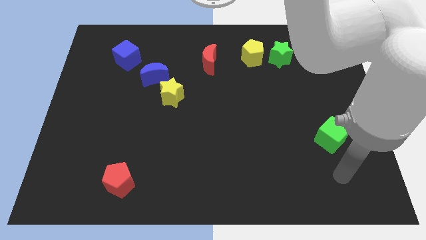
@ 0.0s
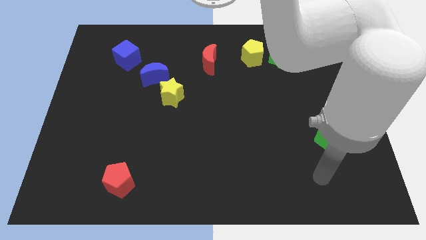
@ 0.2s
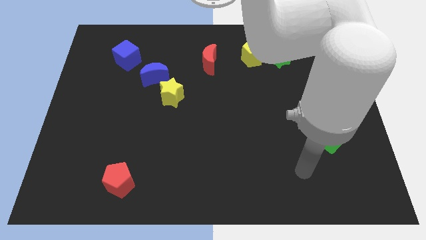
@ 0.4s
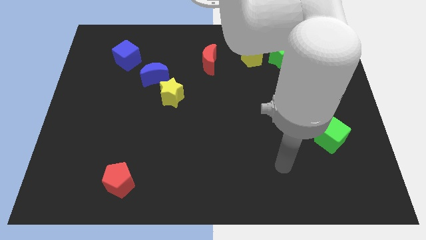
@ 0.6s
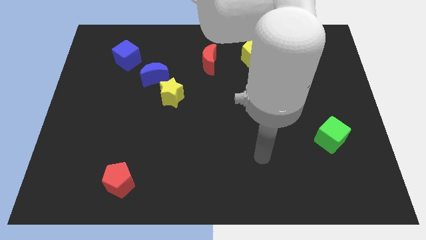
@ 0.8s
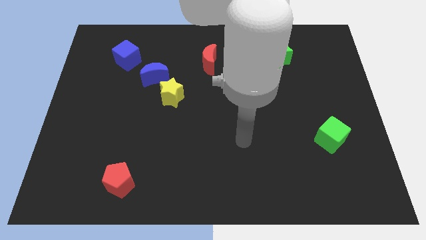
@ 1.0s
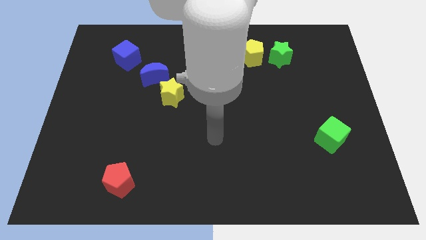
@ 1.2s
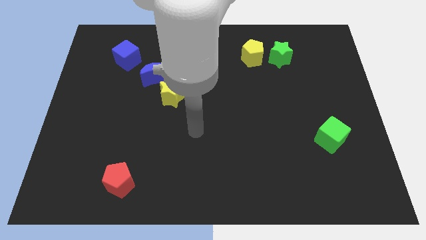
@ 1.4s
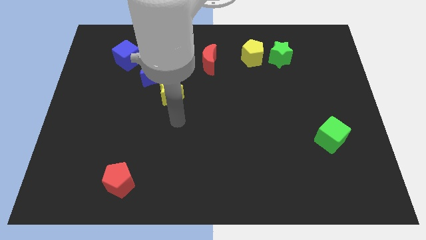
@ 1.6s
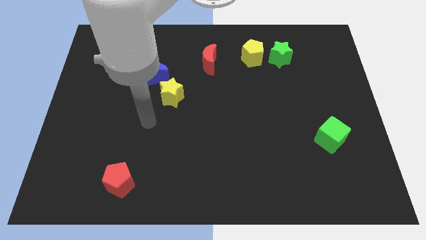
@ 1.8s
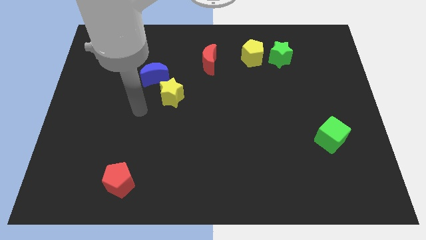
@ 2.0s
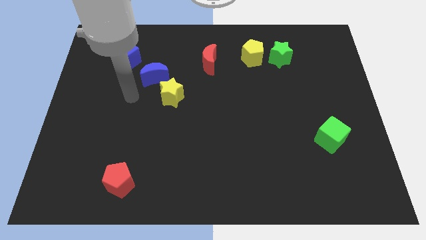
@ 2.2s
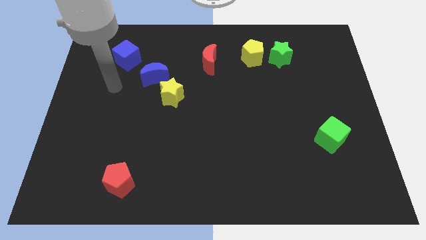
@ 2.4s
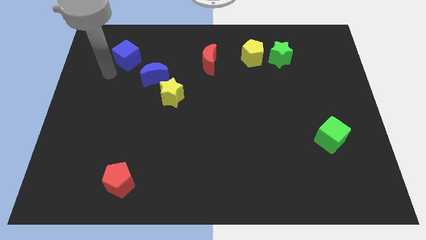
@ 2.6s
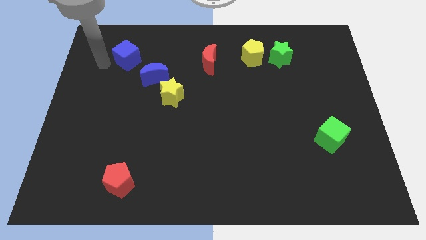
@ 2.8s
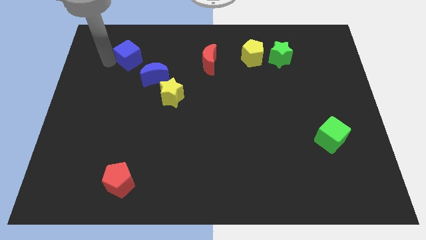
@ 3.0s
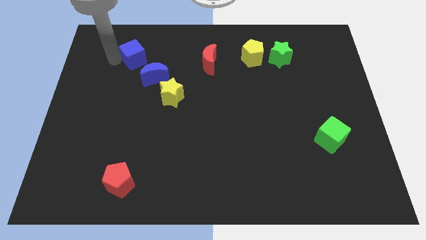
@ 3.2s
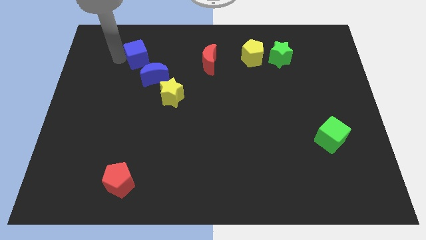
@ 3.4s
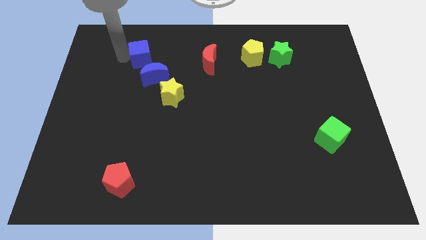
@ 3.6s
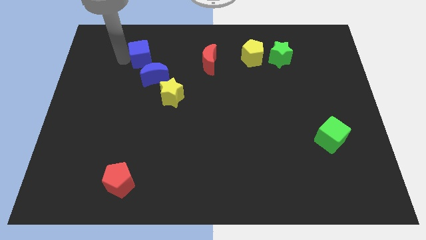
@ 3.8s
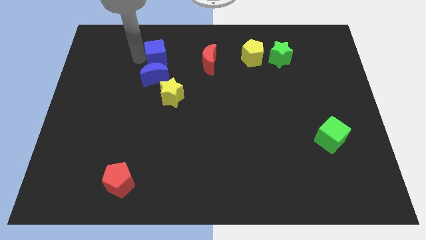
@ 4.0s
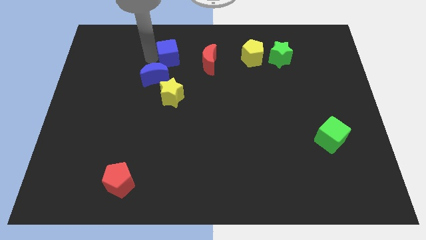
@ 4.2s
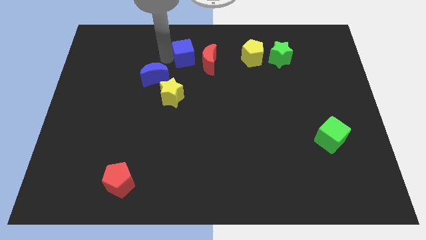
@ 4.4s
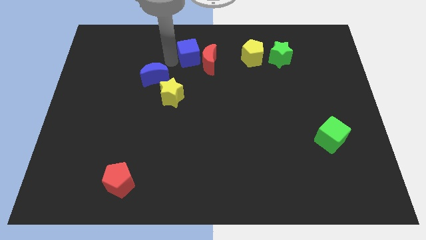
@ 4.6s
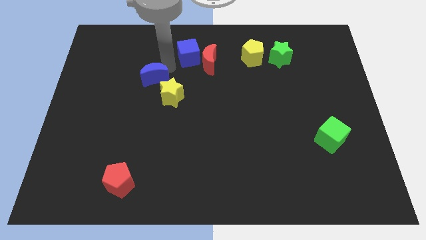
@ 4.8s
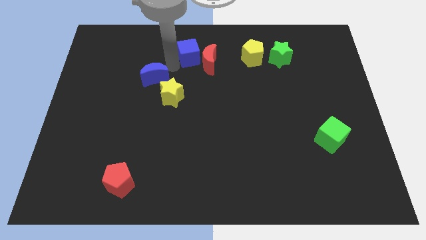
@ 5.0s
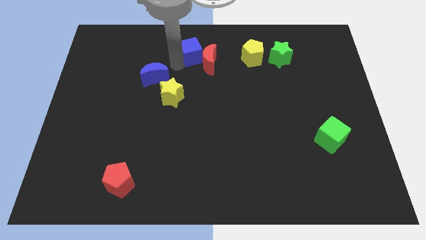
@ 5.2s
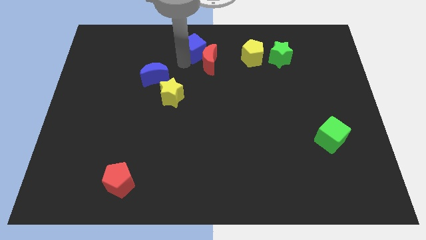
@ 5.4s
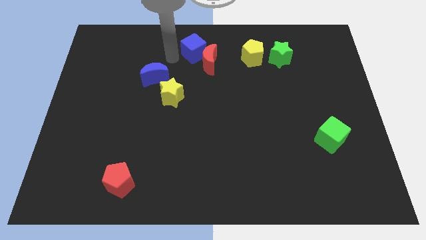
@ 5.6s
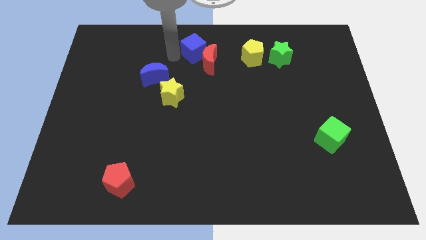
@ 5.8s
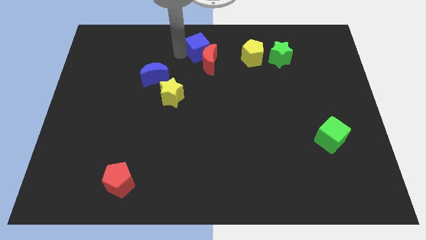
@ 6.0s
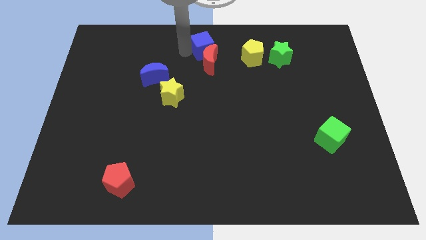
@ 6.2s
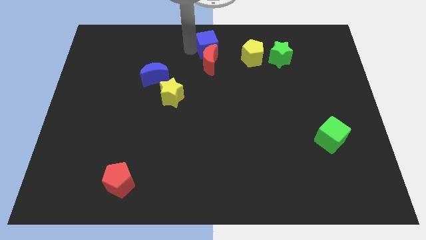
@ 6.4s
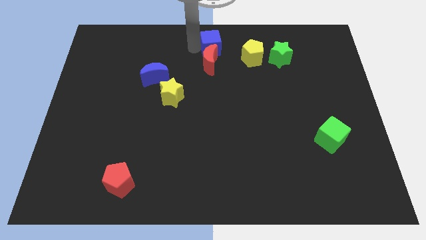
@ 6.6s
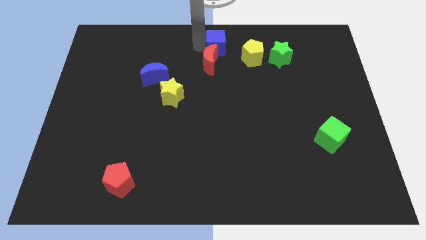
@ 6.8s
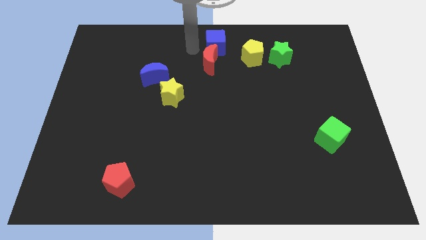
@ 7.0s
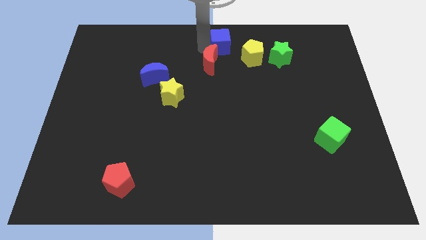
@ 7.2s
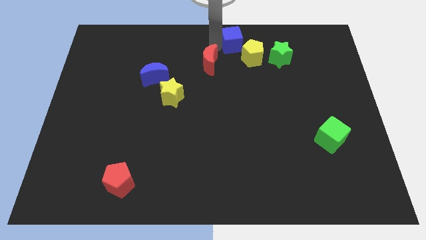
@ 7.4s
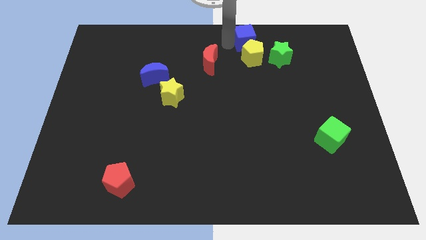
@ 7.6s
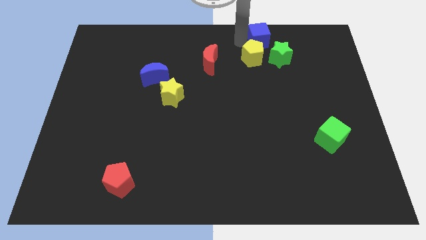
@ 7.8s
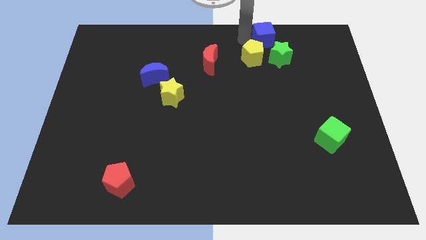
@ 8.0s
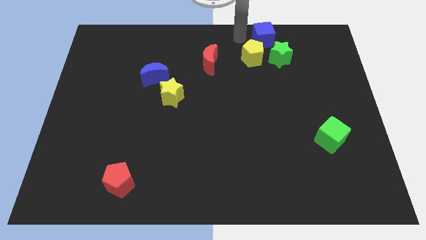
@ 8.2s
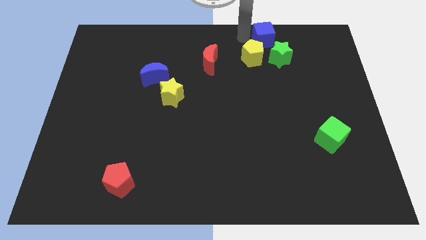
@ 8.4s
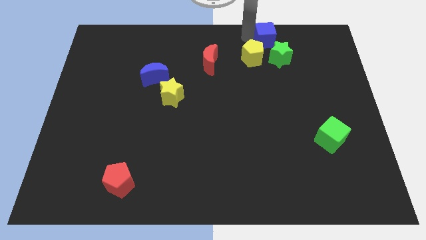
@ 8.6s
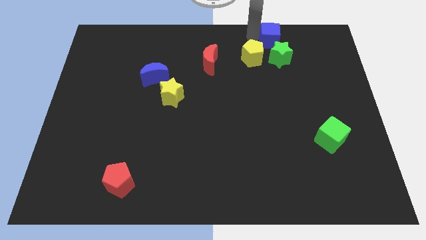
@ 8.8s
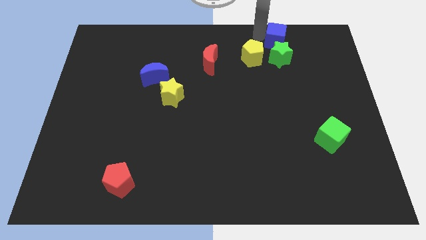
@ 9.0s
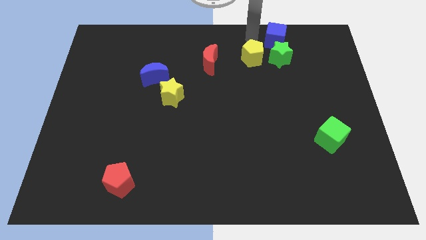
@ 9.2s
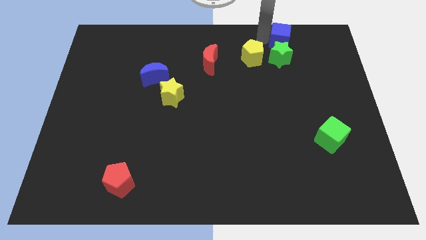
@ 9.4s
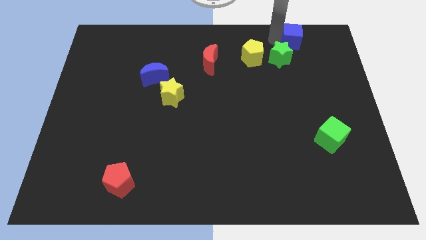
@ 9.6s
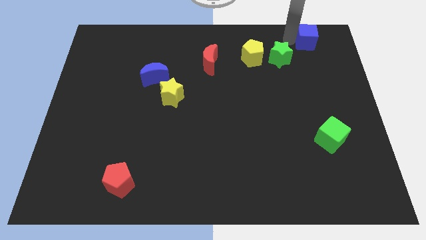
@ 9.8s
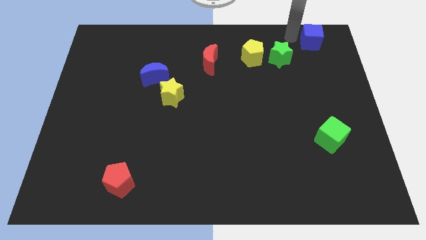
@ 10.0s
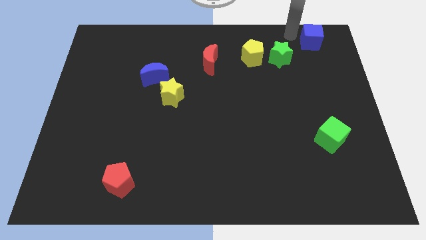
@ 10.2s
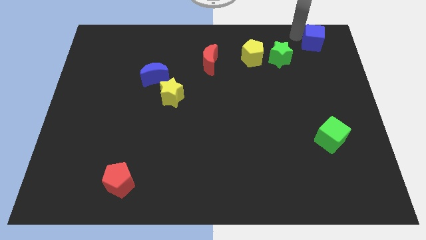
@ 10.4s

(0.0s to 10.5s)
slide the blue cube to the upper right corner

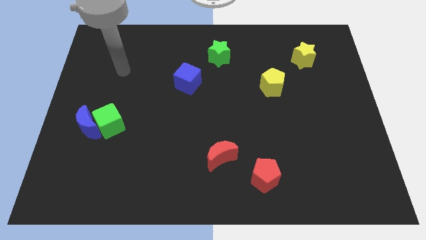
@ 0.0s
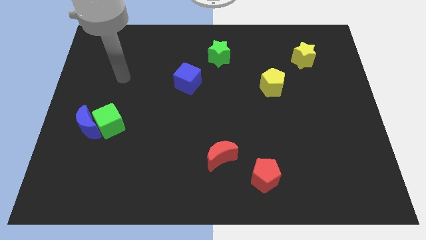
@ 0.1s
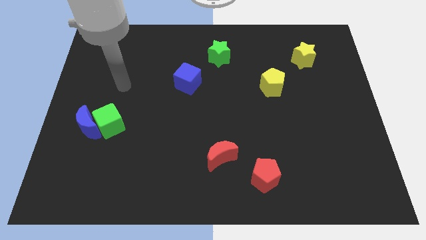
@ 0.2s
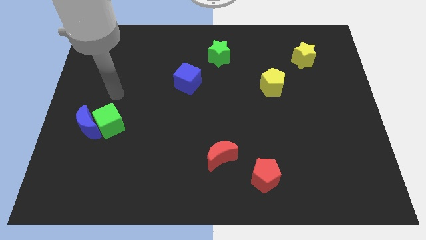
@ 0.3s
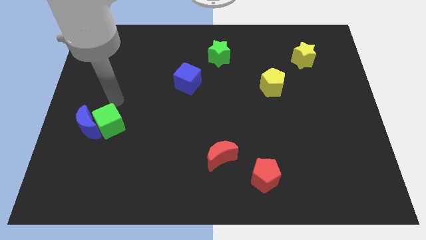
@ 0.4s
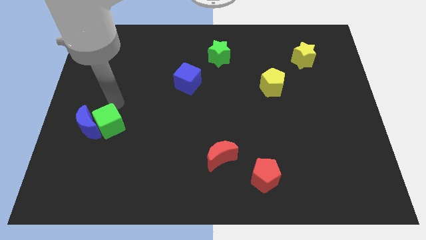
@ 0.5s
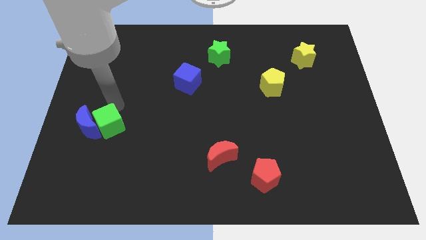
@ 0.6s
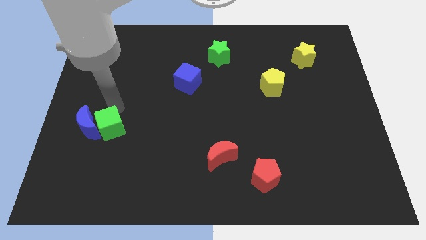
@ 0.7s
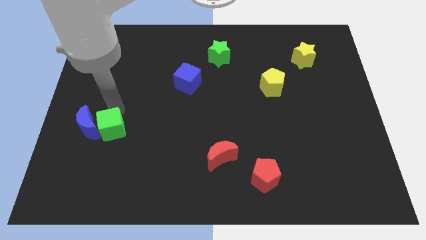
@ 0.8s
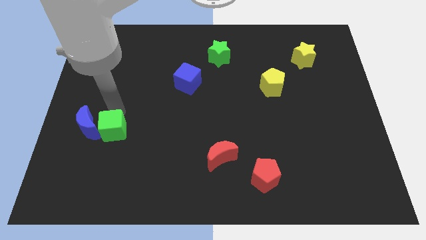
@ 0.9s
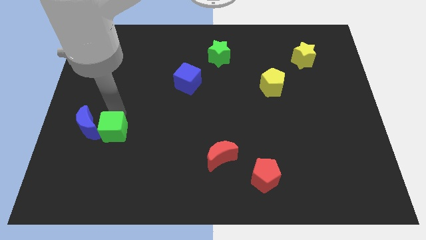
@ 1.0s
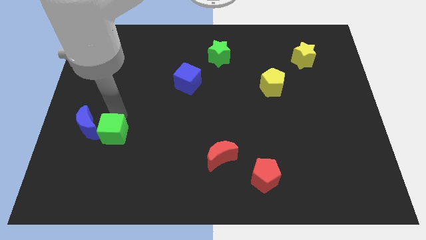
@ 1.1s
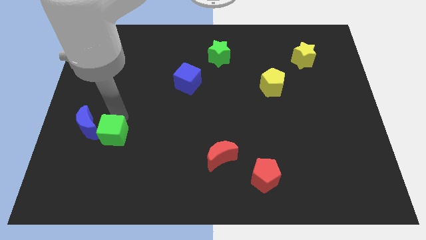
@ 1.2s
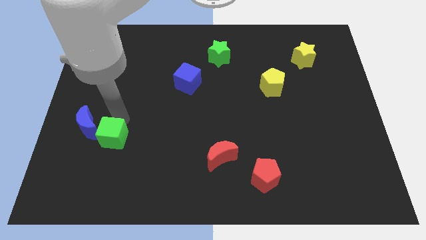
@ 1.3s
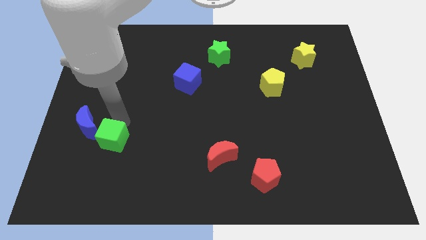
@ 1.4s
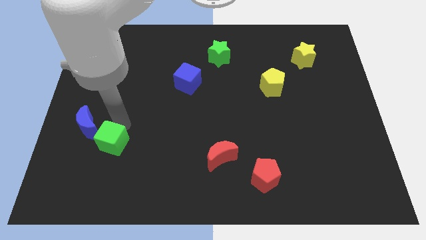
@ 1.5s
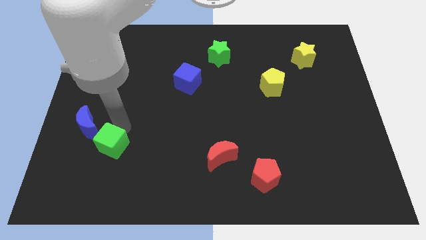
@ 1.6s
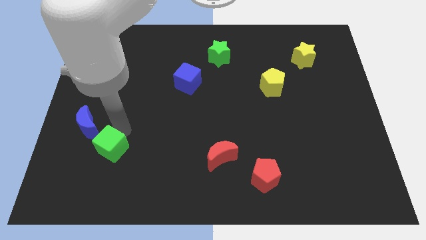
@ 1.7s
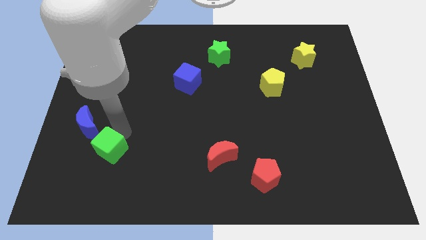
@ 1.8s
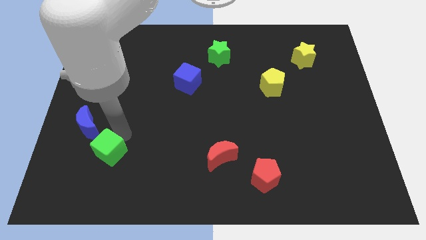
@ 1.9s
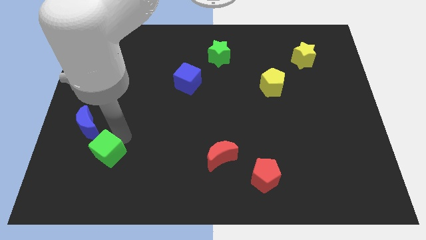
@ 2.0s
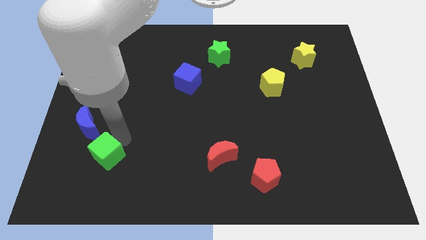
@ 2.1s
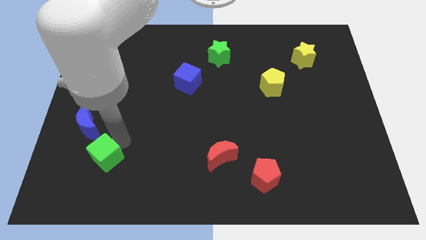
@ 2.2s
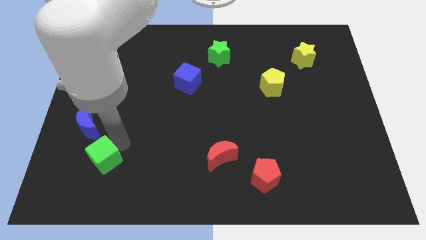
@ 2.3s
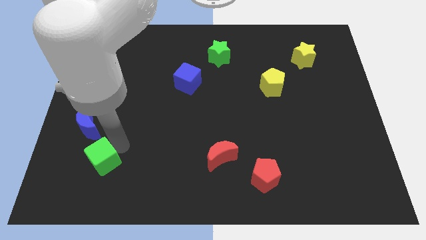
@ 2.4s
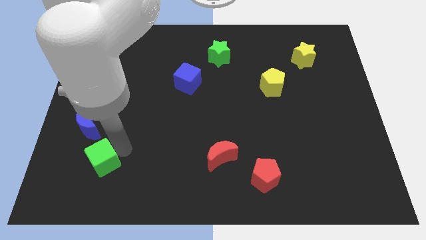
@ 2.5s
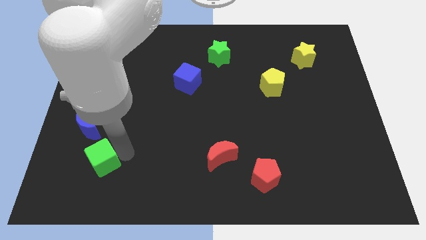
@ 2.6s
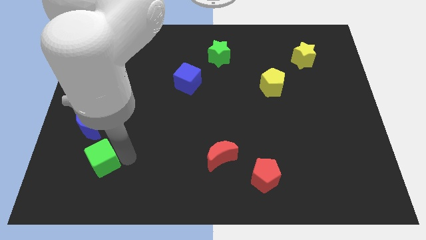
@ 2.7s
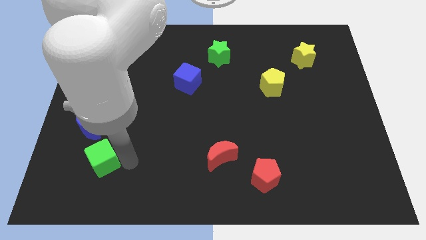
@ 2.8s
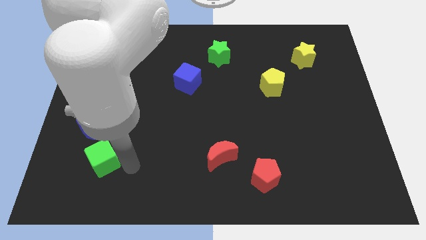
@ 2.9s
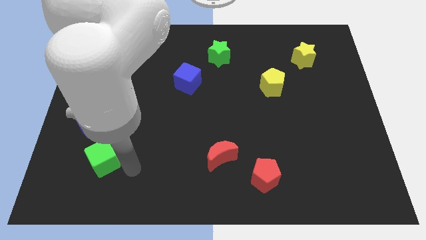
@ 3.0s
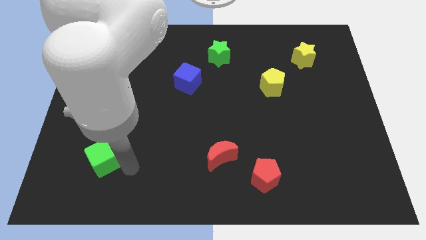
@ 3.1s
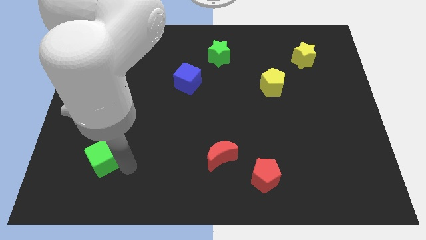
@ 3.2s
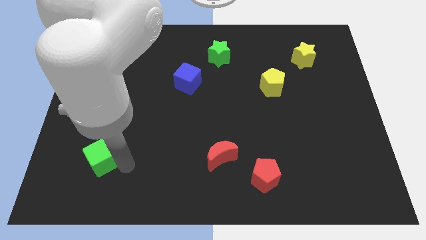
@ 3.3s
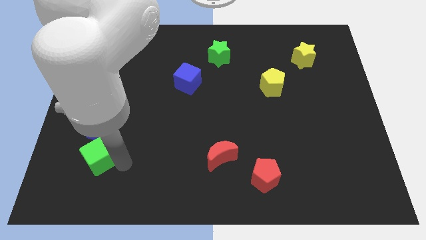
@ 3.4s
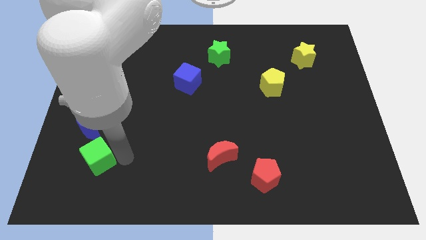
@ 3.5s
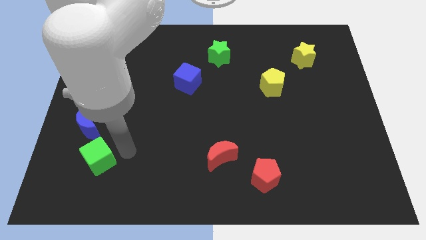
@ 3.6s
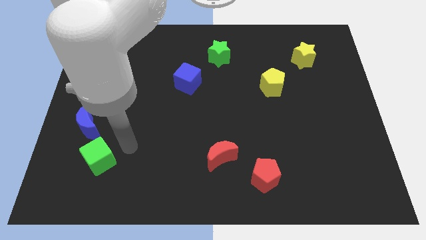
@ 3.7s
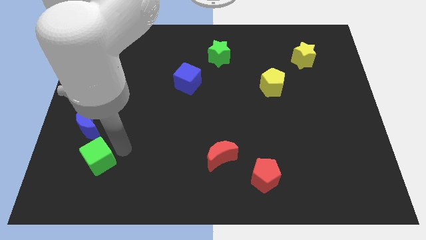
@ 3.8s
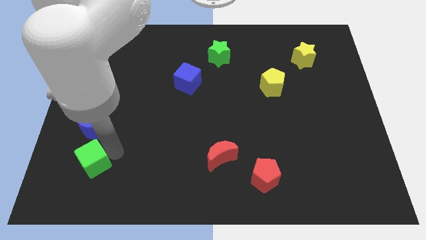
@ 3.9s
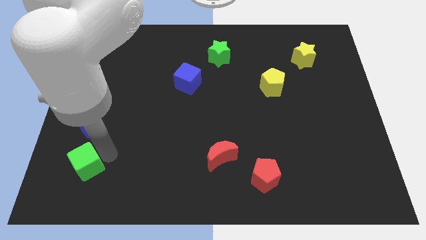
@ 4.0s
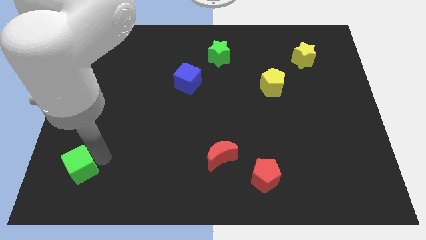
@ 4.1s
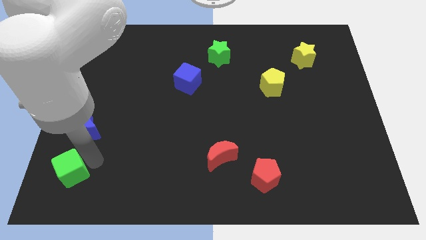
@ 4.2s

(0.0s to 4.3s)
slide the green cube to the bottom left of the board
